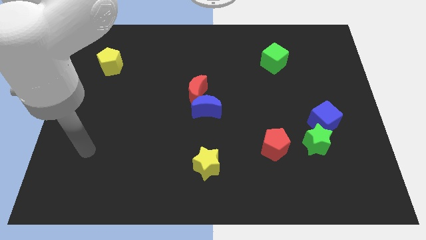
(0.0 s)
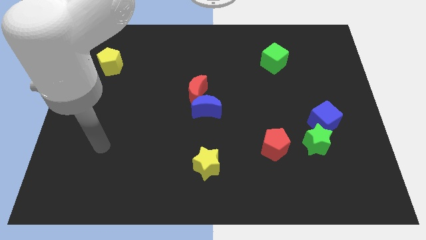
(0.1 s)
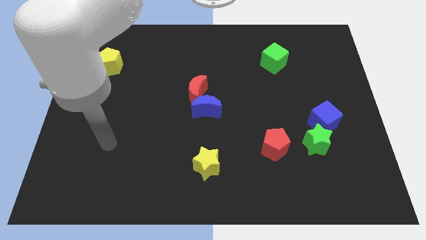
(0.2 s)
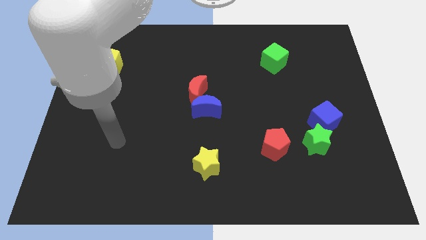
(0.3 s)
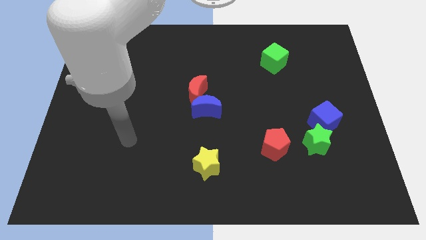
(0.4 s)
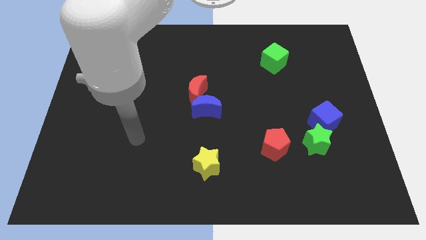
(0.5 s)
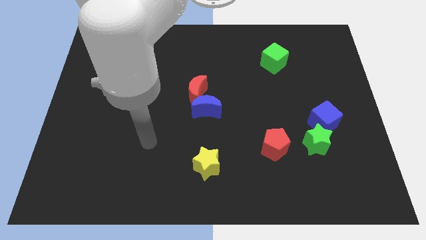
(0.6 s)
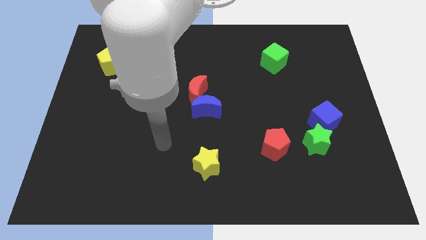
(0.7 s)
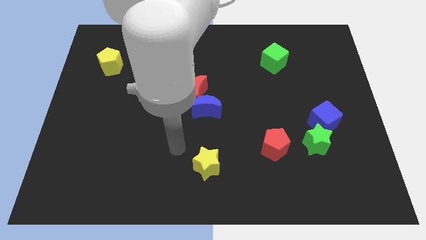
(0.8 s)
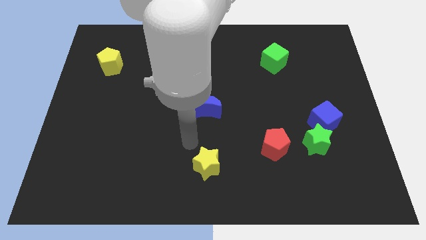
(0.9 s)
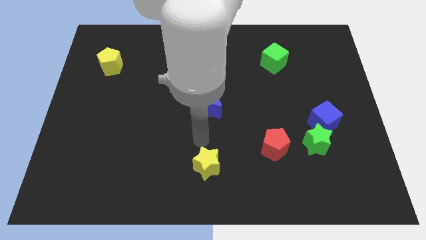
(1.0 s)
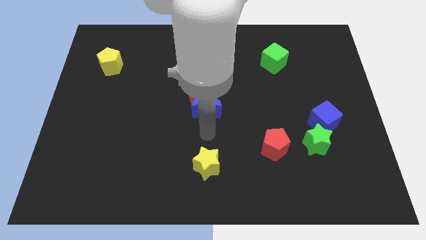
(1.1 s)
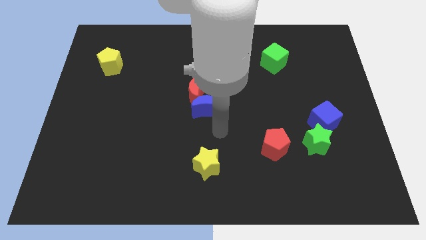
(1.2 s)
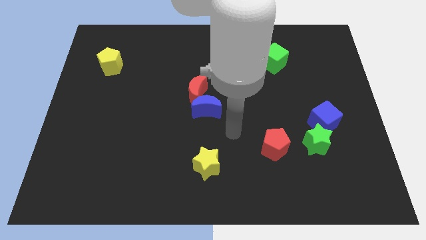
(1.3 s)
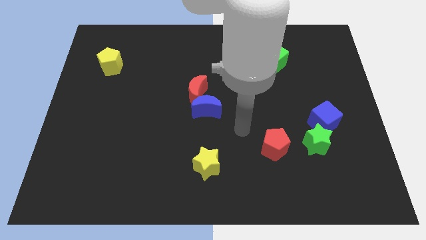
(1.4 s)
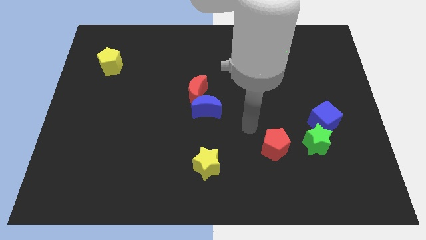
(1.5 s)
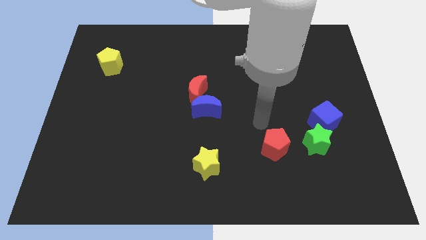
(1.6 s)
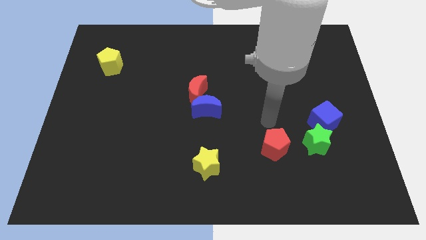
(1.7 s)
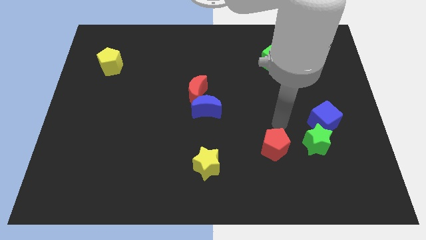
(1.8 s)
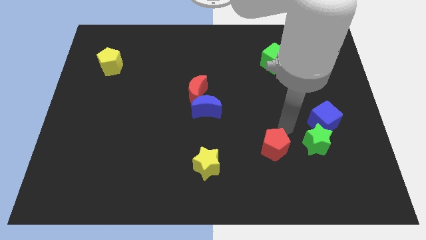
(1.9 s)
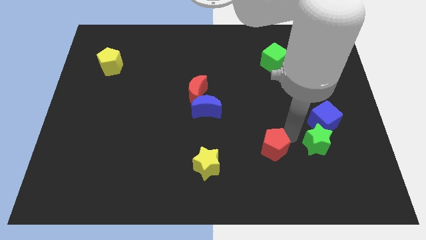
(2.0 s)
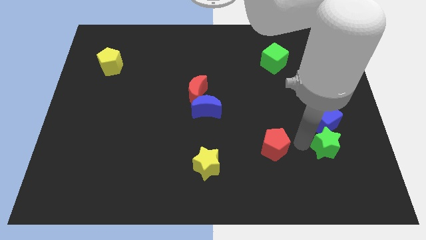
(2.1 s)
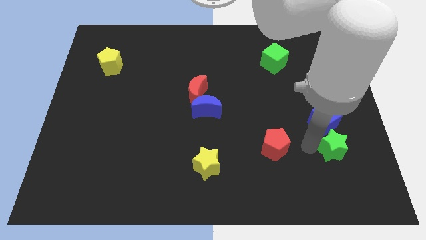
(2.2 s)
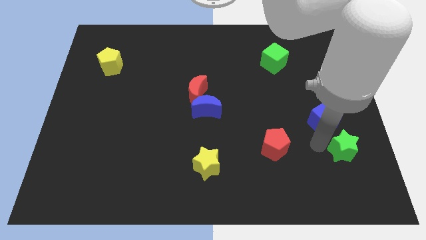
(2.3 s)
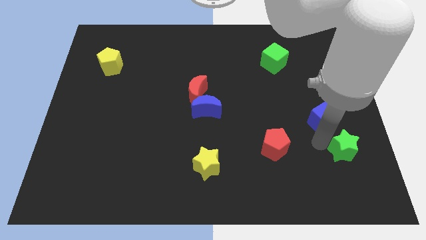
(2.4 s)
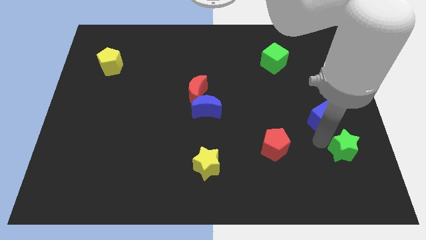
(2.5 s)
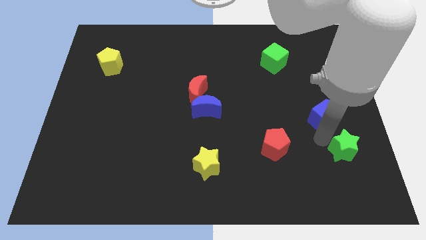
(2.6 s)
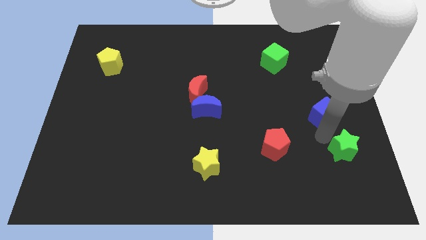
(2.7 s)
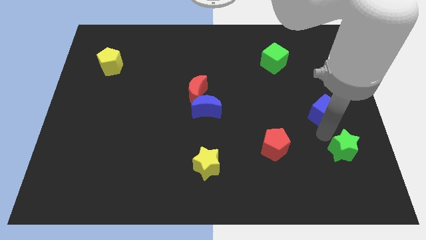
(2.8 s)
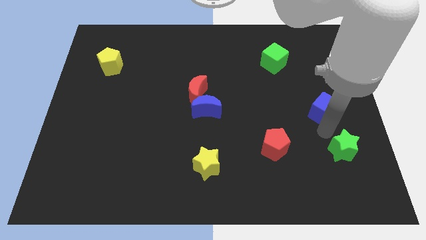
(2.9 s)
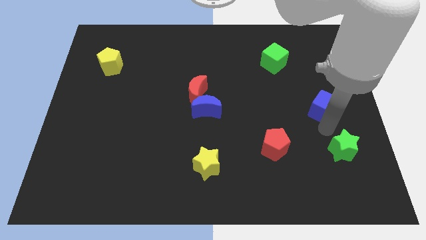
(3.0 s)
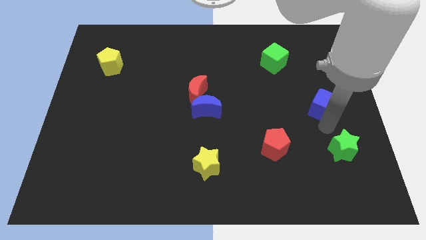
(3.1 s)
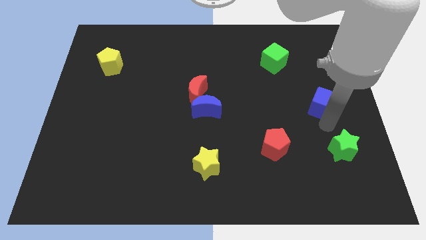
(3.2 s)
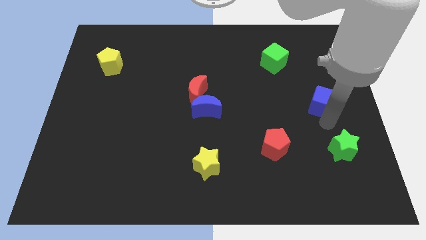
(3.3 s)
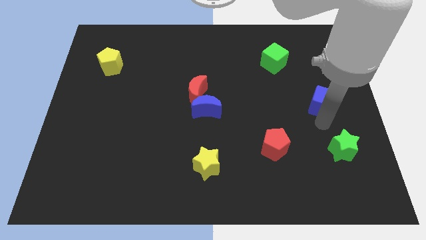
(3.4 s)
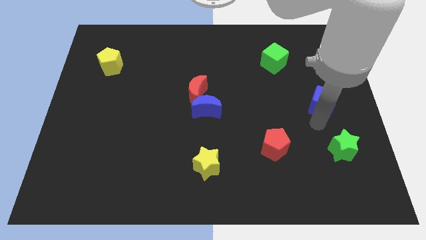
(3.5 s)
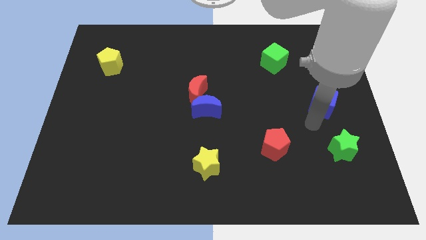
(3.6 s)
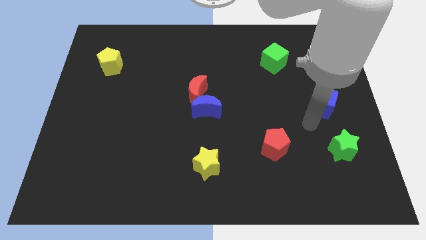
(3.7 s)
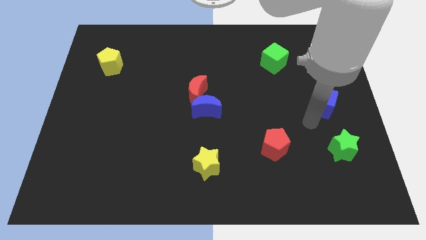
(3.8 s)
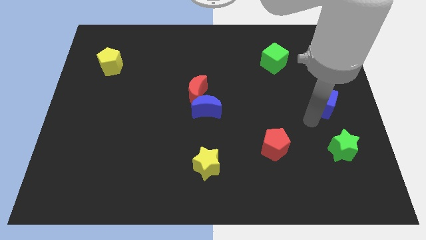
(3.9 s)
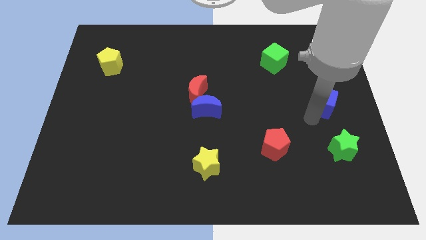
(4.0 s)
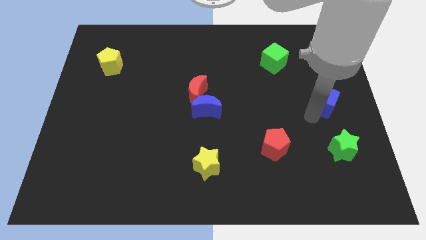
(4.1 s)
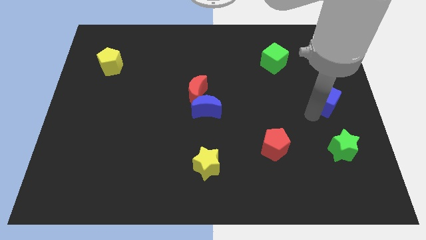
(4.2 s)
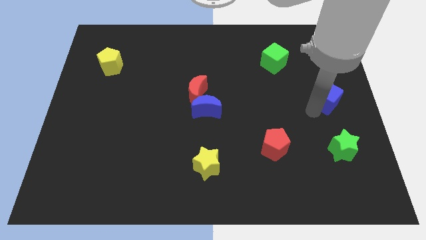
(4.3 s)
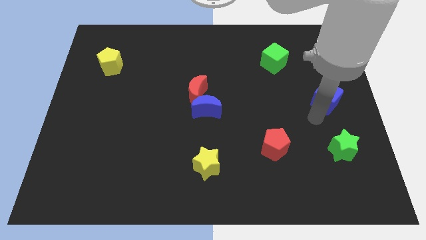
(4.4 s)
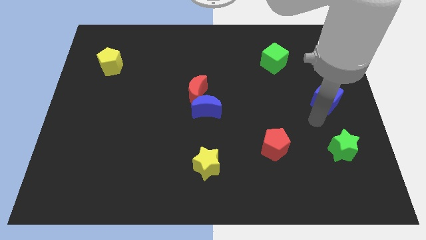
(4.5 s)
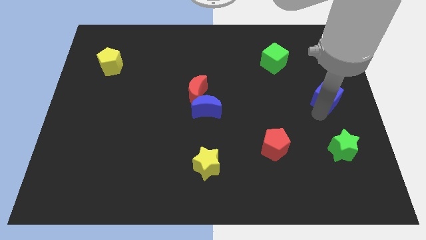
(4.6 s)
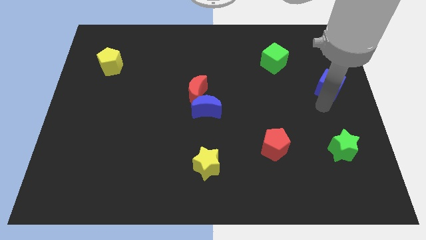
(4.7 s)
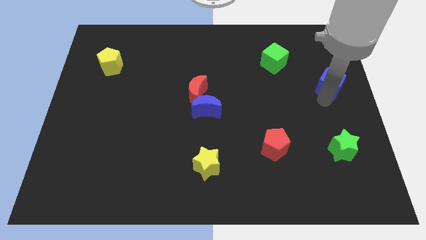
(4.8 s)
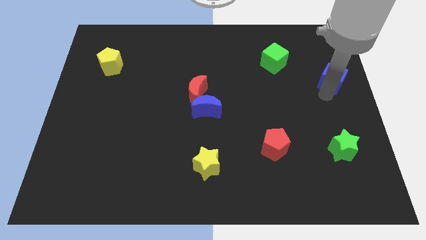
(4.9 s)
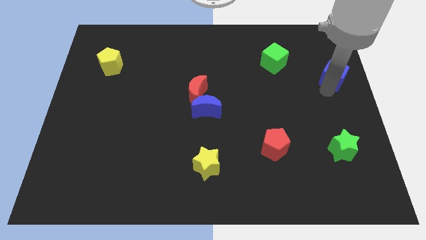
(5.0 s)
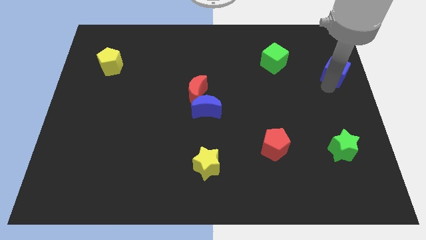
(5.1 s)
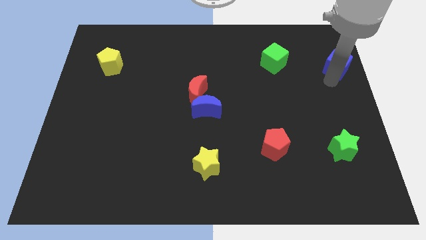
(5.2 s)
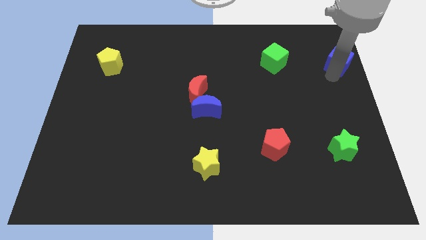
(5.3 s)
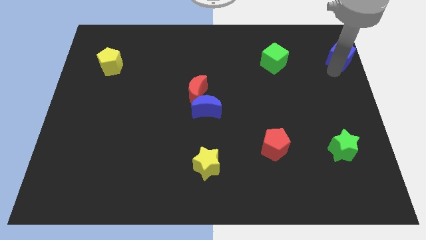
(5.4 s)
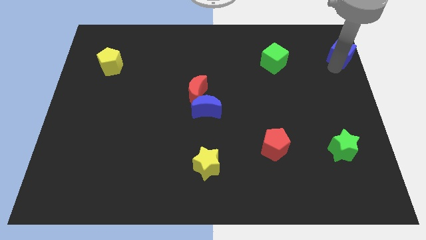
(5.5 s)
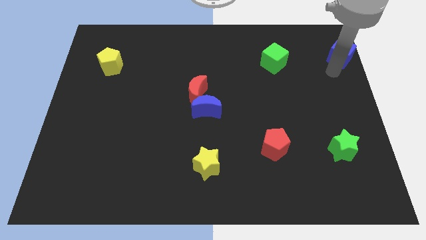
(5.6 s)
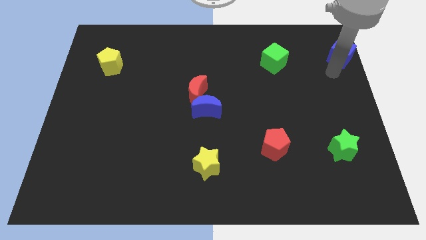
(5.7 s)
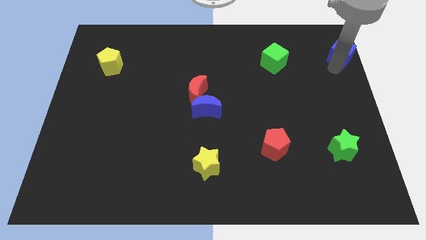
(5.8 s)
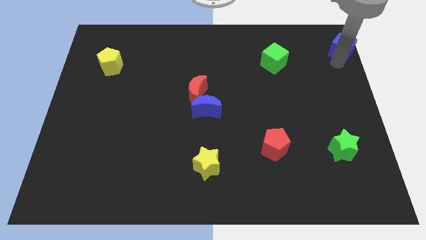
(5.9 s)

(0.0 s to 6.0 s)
move the blue cube to the upper right corner
